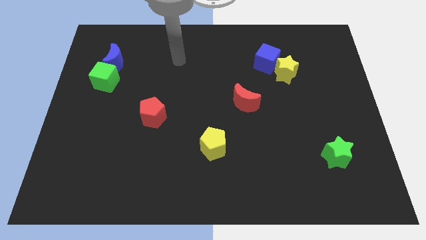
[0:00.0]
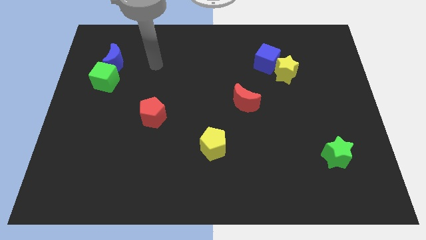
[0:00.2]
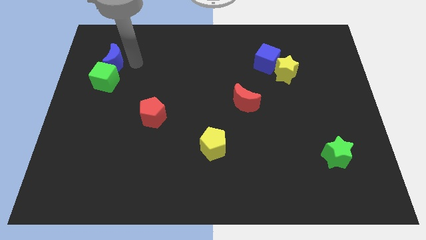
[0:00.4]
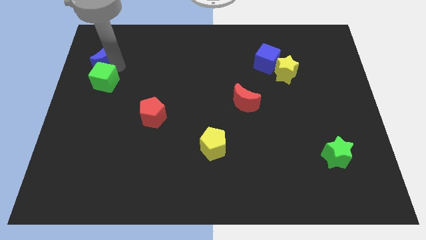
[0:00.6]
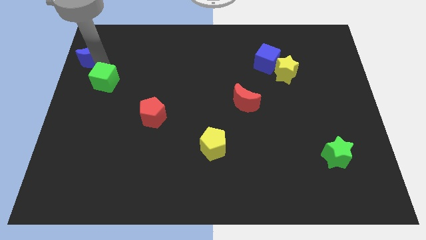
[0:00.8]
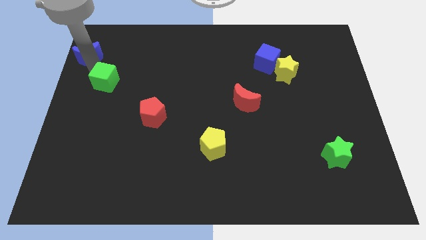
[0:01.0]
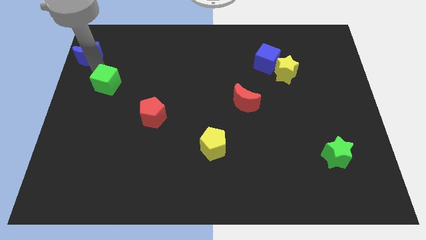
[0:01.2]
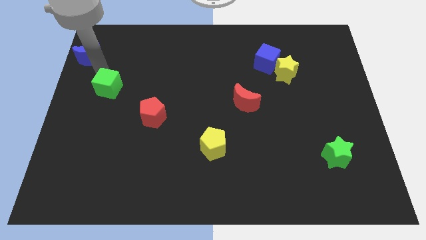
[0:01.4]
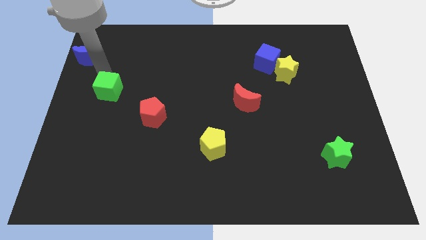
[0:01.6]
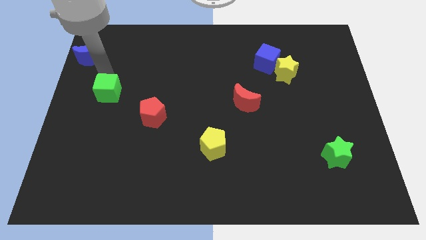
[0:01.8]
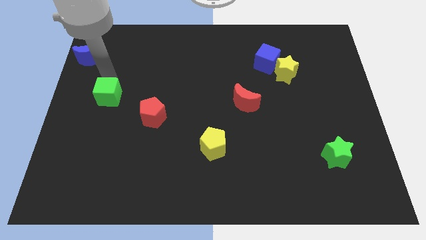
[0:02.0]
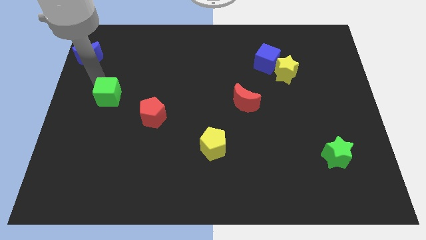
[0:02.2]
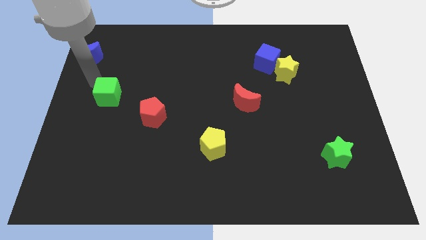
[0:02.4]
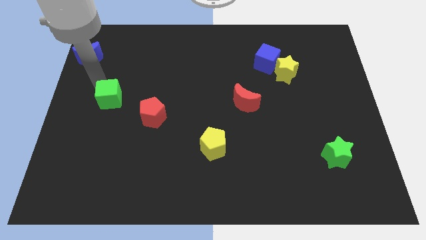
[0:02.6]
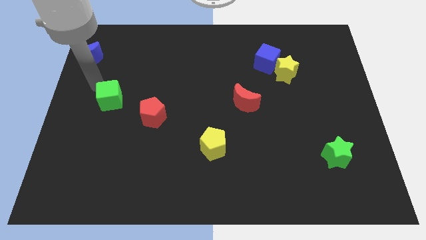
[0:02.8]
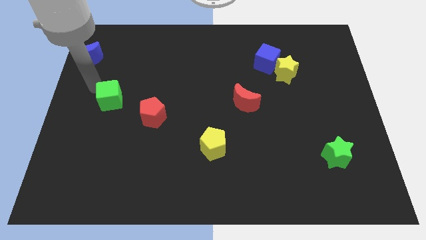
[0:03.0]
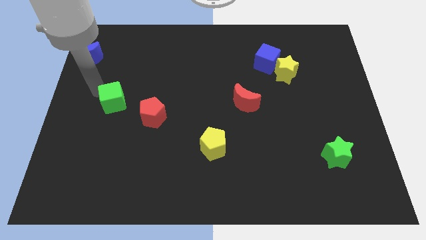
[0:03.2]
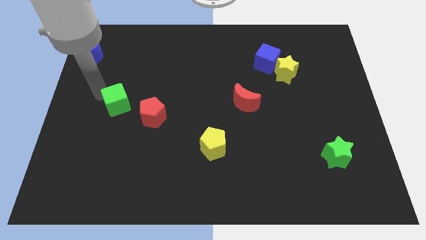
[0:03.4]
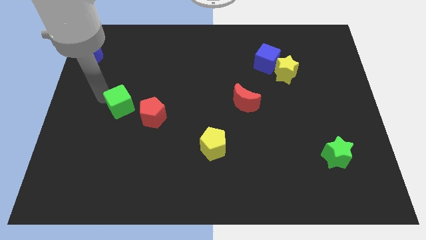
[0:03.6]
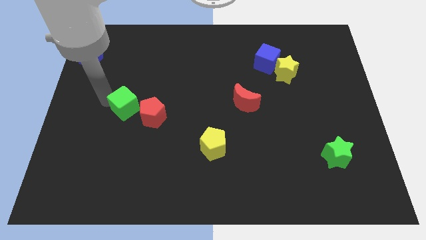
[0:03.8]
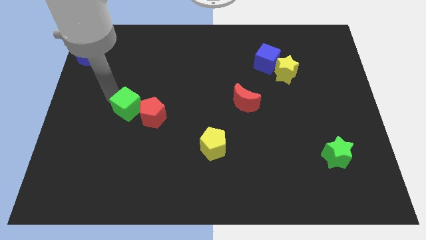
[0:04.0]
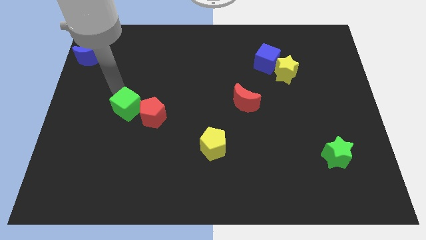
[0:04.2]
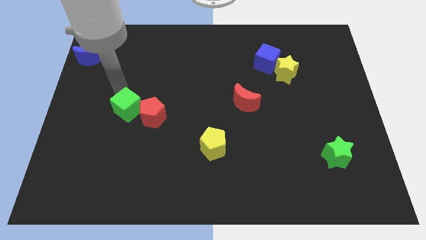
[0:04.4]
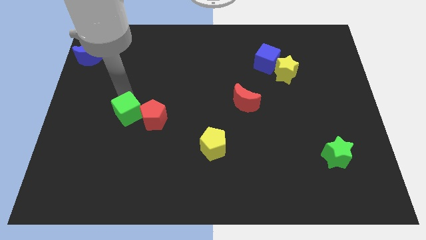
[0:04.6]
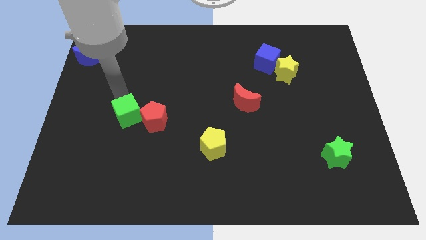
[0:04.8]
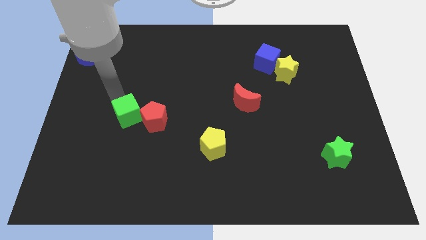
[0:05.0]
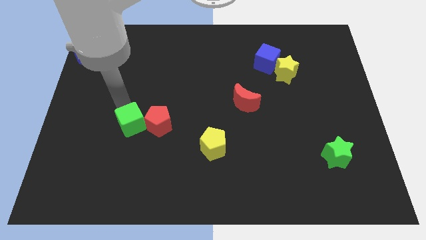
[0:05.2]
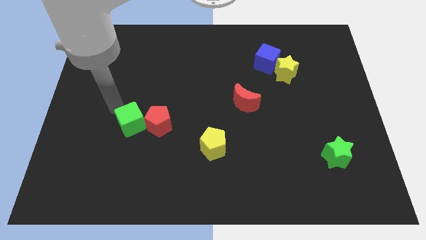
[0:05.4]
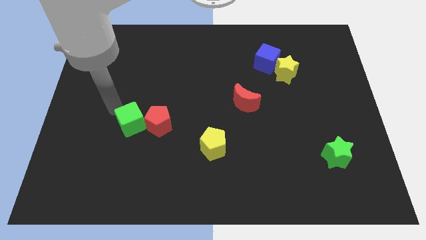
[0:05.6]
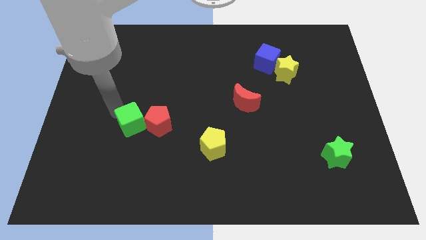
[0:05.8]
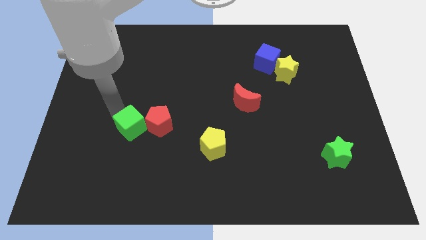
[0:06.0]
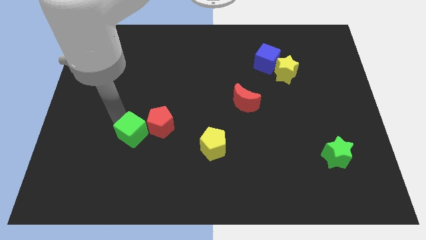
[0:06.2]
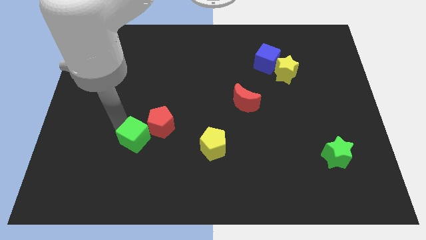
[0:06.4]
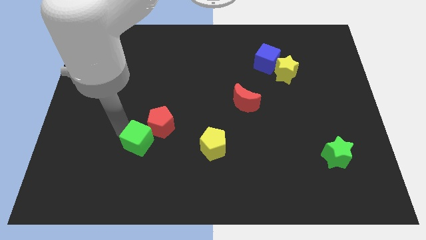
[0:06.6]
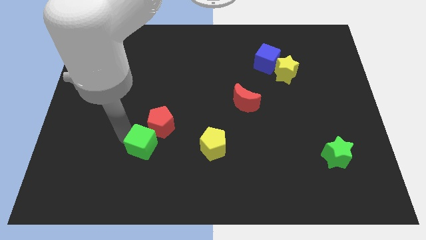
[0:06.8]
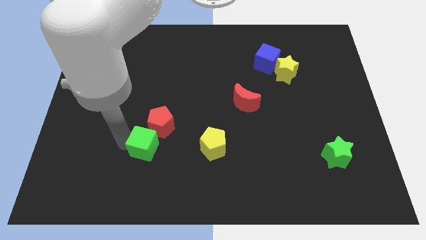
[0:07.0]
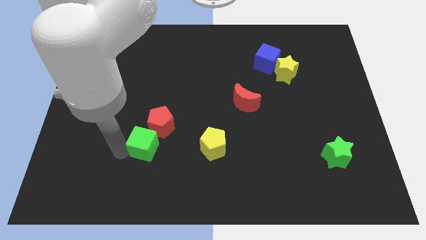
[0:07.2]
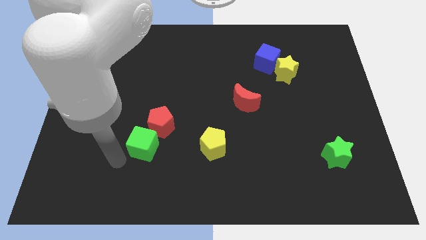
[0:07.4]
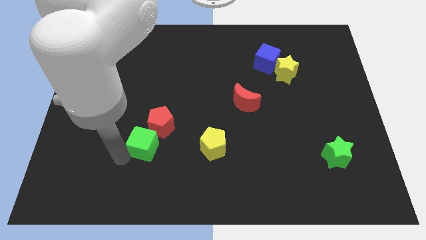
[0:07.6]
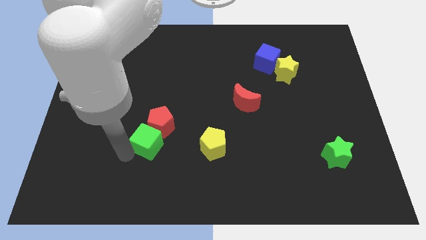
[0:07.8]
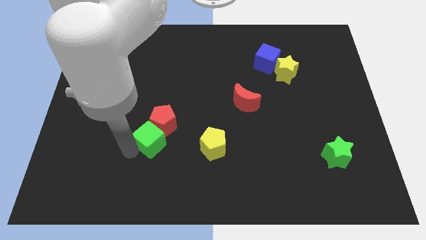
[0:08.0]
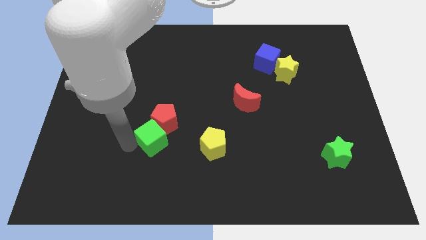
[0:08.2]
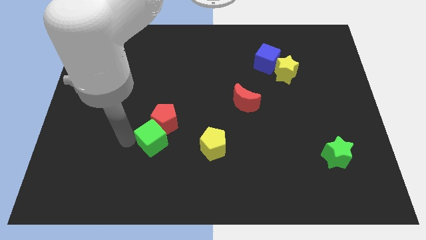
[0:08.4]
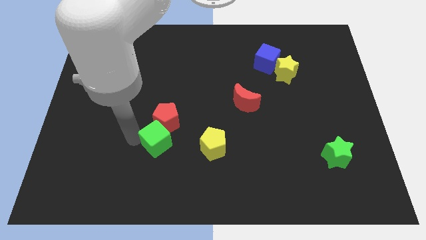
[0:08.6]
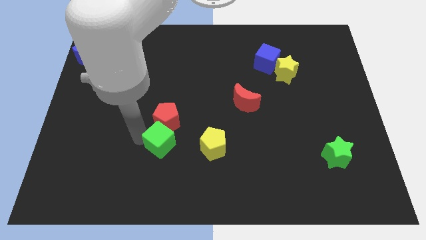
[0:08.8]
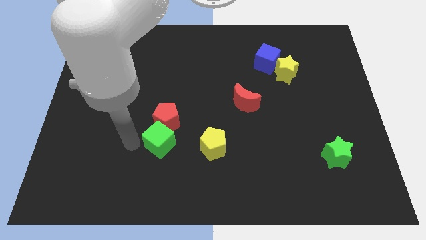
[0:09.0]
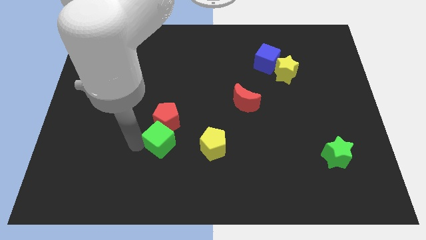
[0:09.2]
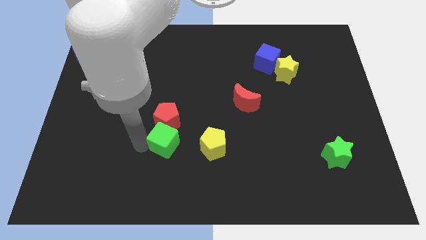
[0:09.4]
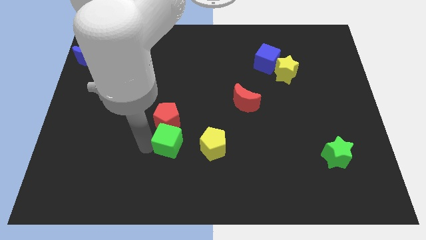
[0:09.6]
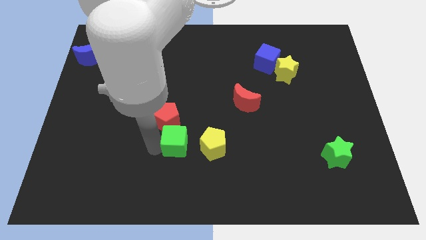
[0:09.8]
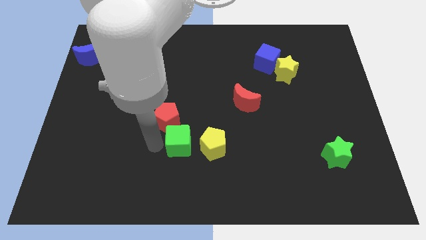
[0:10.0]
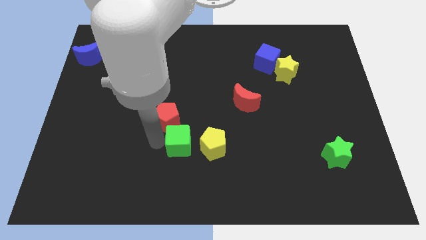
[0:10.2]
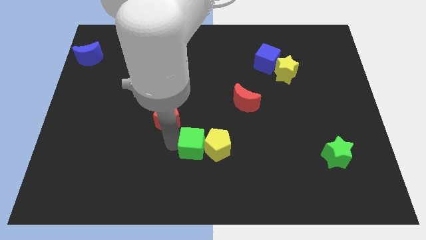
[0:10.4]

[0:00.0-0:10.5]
move the green cube to the yellow pentagon

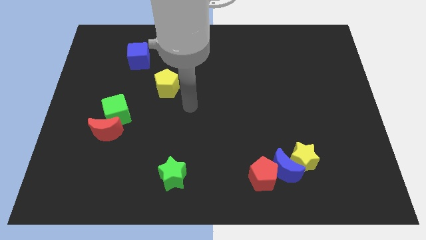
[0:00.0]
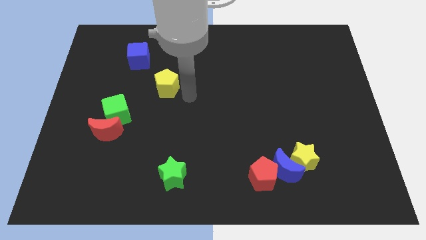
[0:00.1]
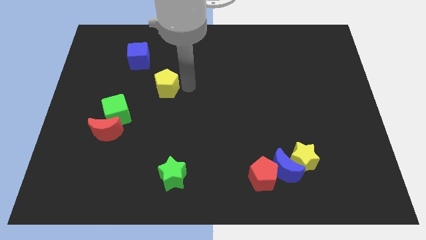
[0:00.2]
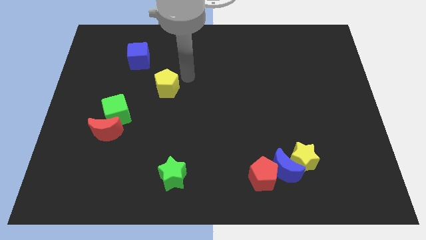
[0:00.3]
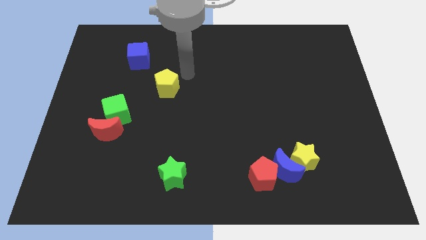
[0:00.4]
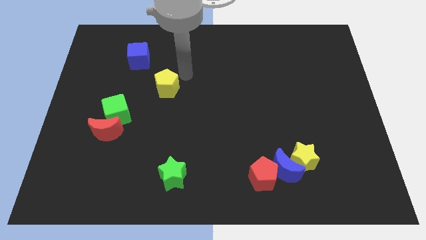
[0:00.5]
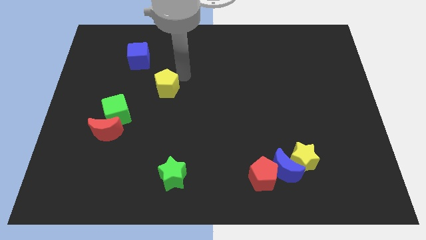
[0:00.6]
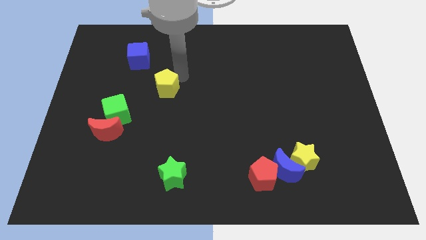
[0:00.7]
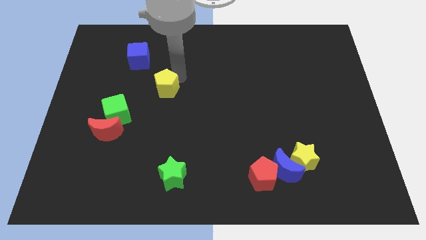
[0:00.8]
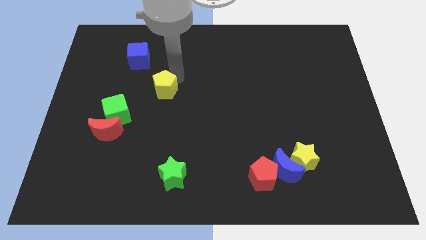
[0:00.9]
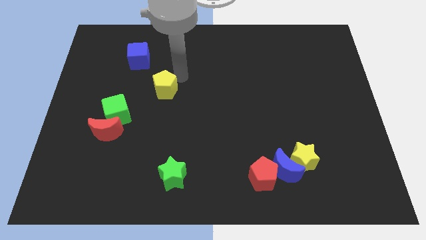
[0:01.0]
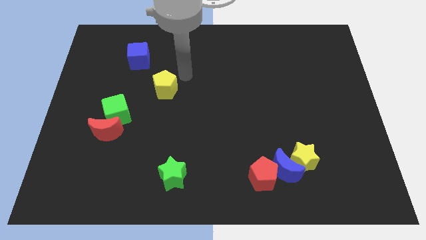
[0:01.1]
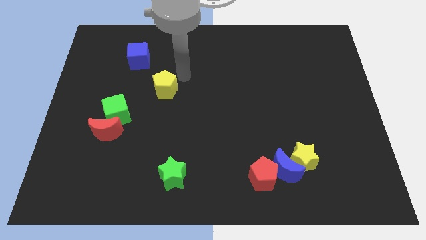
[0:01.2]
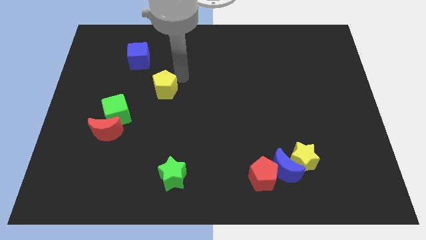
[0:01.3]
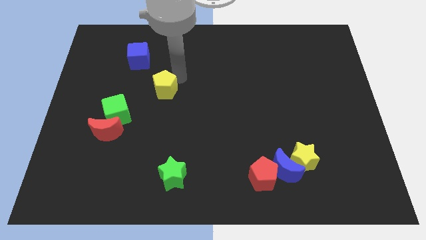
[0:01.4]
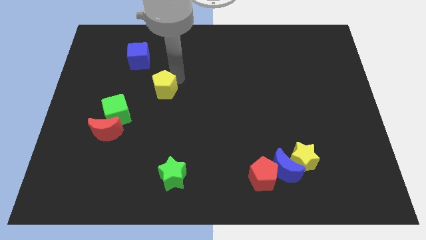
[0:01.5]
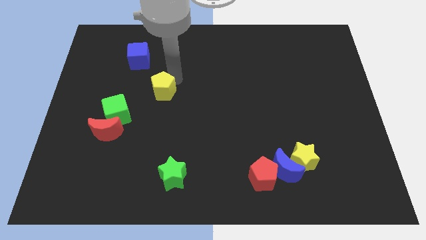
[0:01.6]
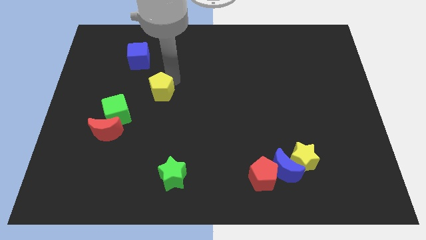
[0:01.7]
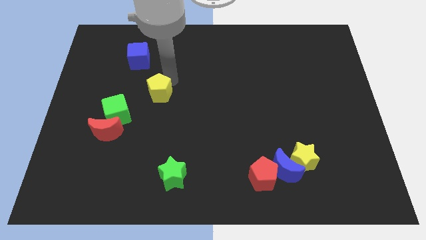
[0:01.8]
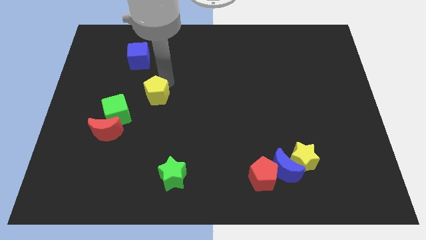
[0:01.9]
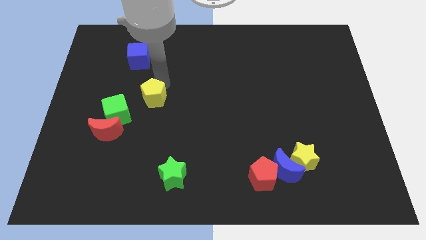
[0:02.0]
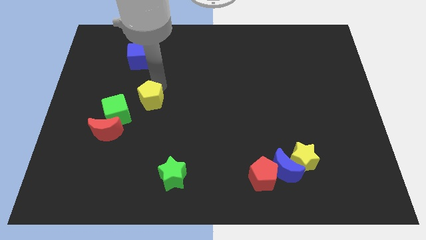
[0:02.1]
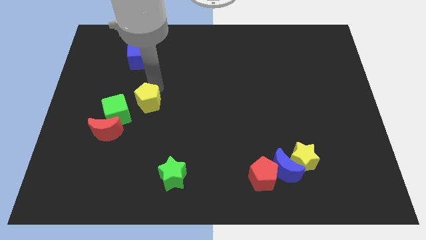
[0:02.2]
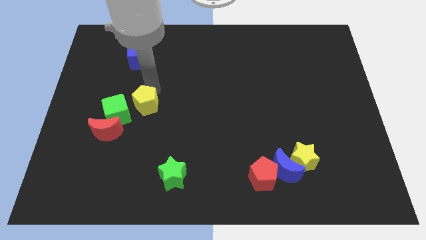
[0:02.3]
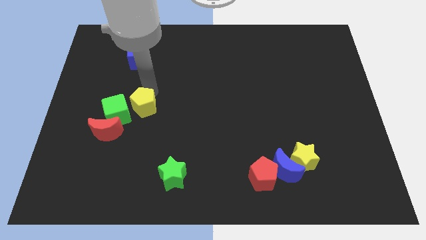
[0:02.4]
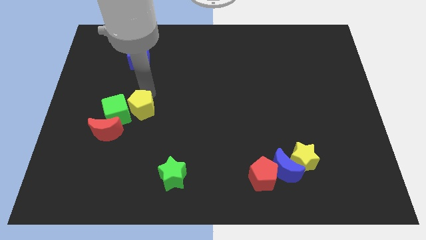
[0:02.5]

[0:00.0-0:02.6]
put the yellow pentagon towards the green cube
